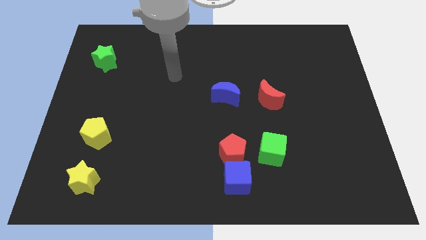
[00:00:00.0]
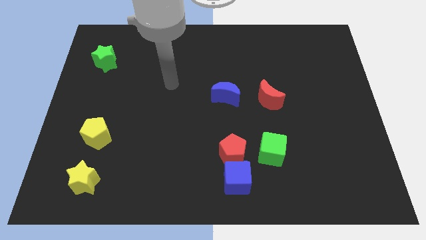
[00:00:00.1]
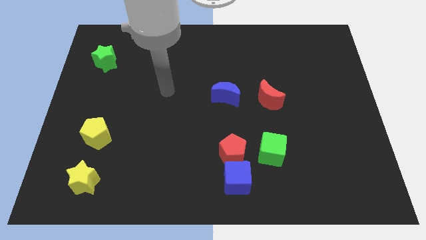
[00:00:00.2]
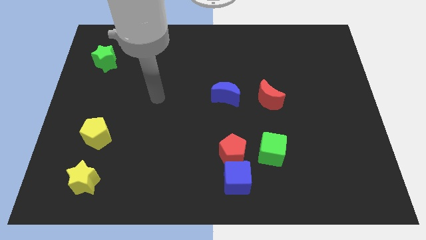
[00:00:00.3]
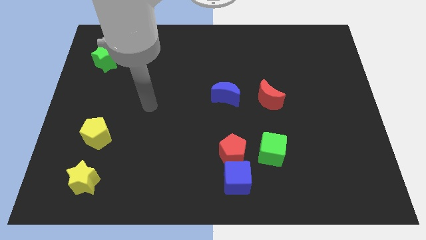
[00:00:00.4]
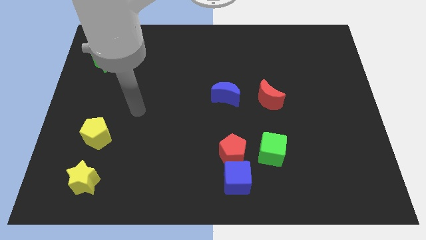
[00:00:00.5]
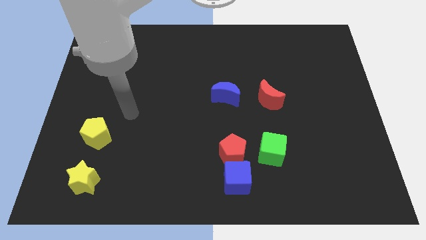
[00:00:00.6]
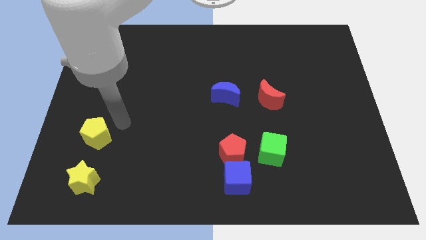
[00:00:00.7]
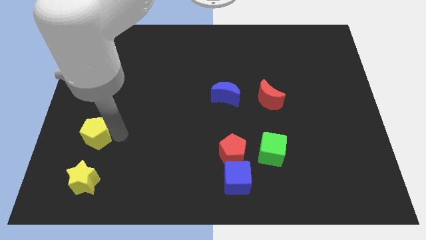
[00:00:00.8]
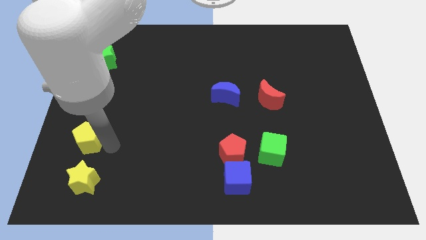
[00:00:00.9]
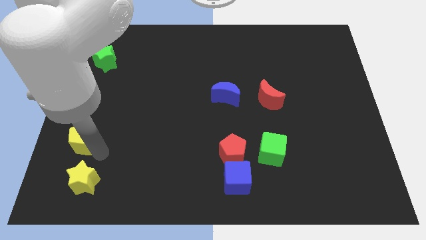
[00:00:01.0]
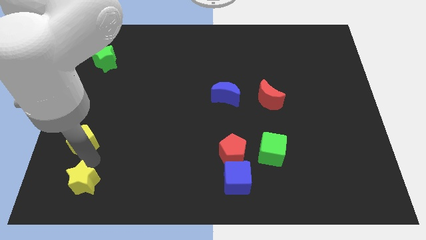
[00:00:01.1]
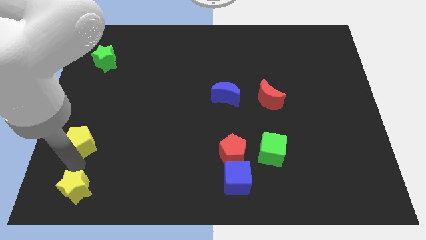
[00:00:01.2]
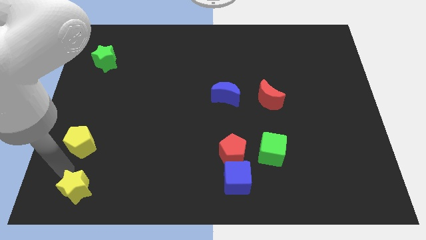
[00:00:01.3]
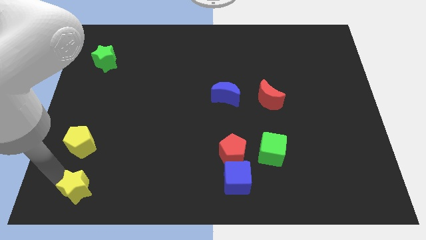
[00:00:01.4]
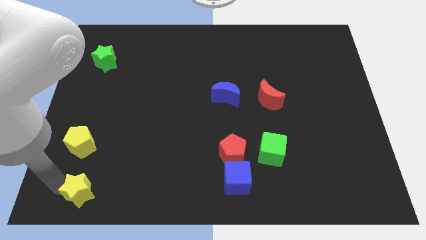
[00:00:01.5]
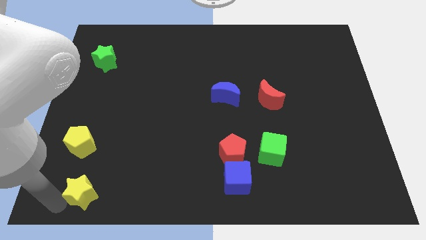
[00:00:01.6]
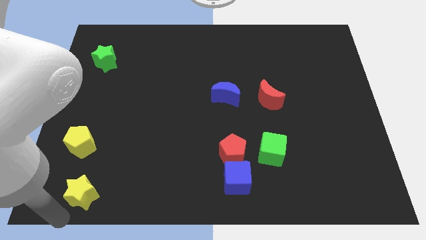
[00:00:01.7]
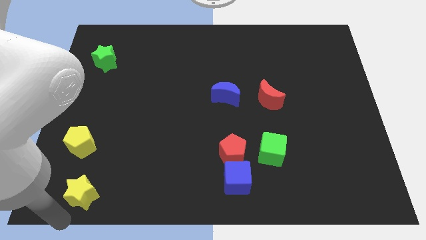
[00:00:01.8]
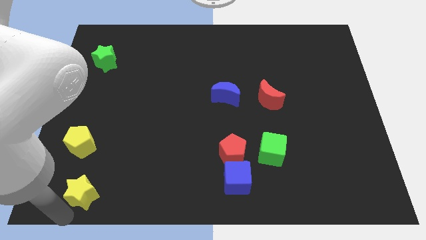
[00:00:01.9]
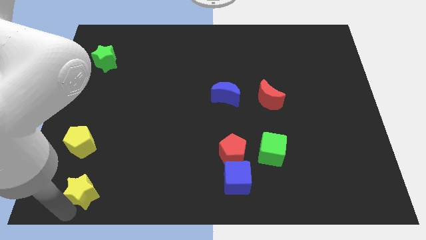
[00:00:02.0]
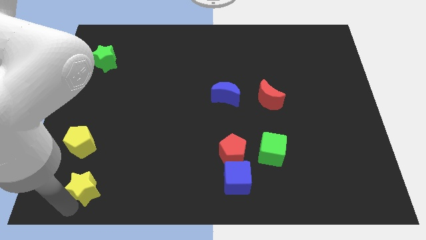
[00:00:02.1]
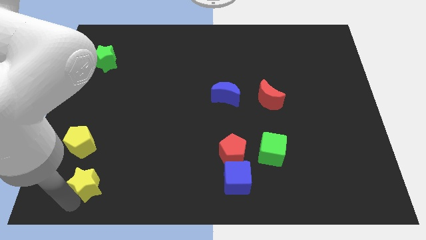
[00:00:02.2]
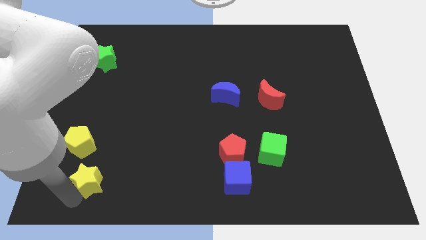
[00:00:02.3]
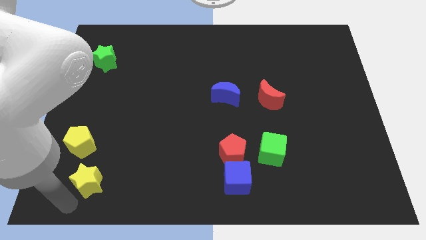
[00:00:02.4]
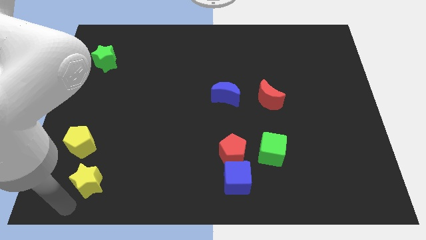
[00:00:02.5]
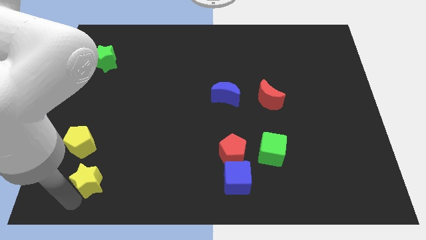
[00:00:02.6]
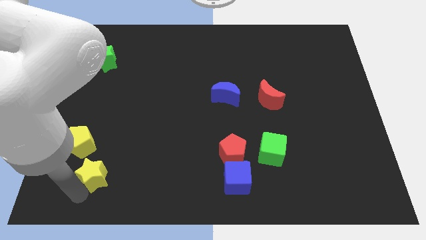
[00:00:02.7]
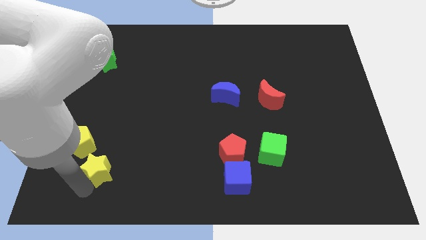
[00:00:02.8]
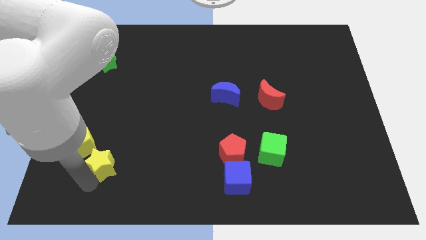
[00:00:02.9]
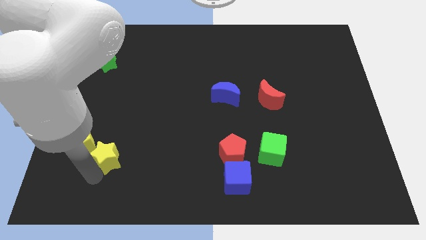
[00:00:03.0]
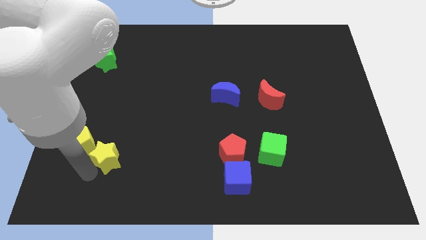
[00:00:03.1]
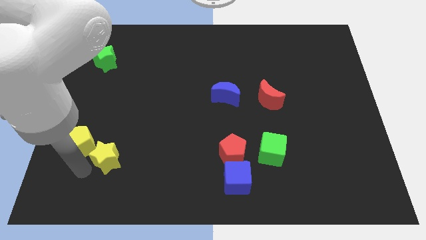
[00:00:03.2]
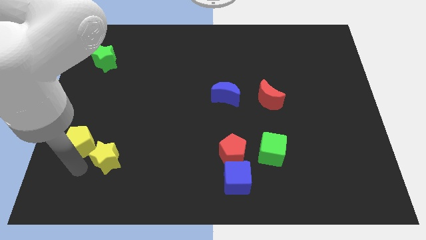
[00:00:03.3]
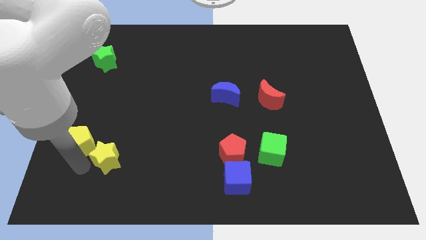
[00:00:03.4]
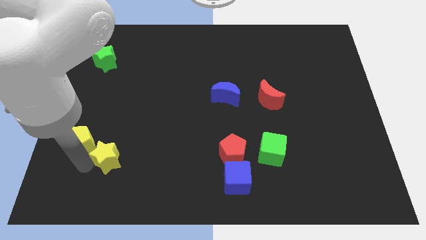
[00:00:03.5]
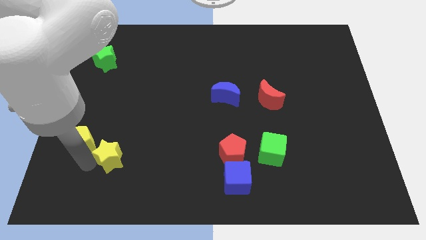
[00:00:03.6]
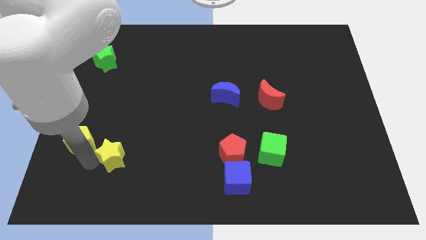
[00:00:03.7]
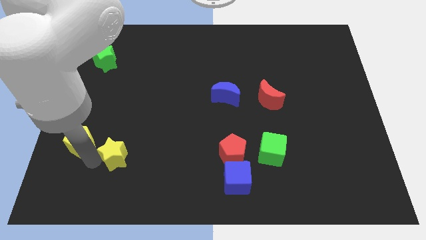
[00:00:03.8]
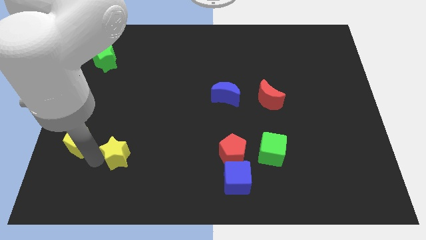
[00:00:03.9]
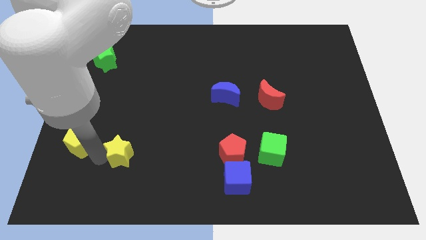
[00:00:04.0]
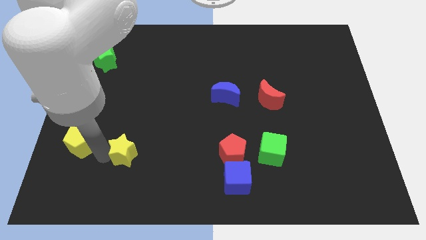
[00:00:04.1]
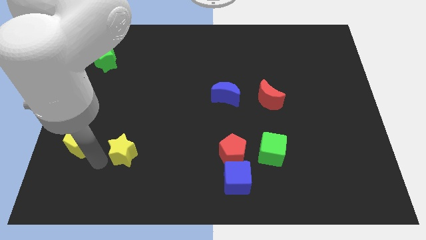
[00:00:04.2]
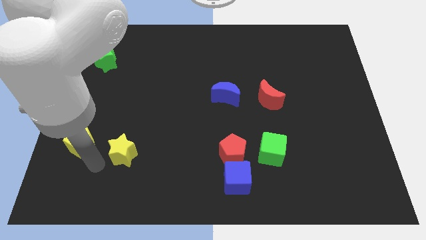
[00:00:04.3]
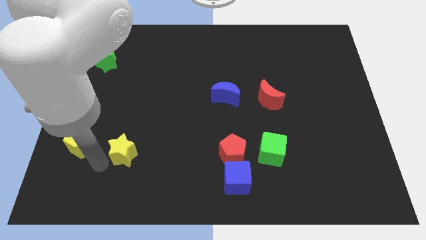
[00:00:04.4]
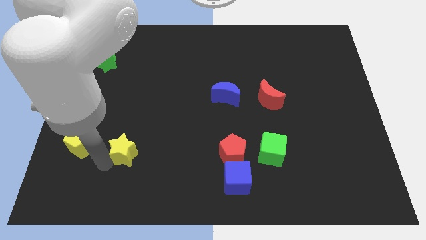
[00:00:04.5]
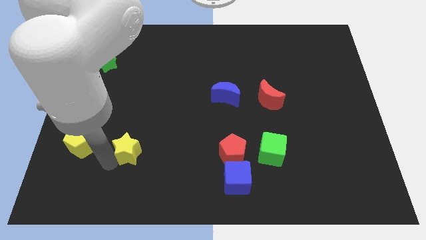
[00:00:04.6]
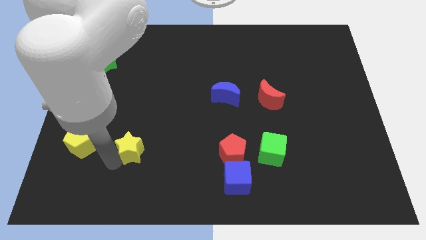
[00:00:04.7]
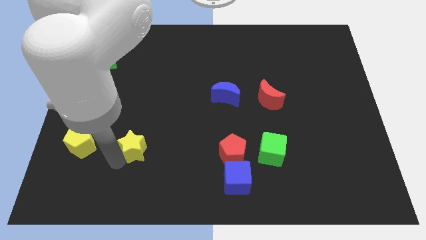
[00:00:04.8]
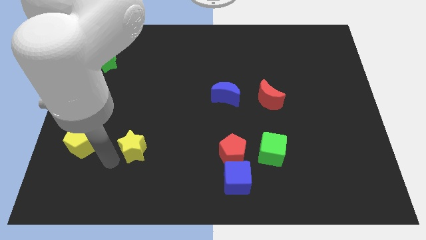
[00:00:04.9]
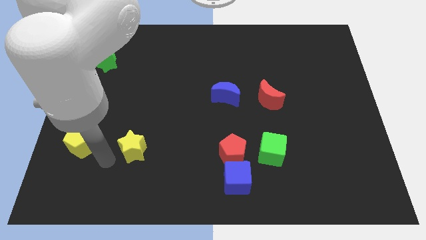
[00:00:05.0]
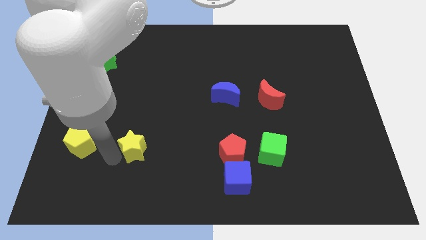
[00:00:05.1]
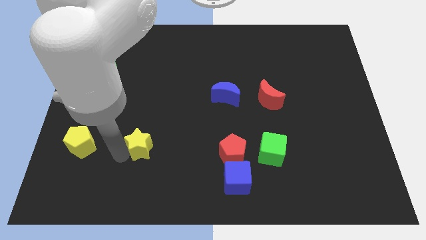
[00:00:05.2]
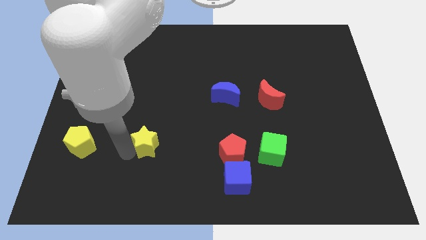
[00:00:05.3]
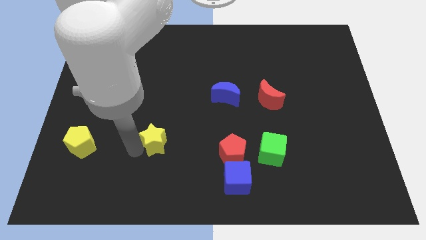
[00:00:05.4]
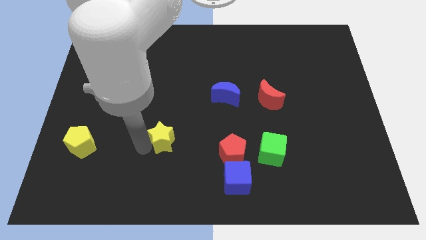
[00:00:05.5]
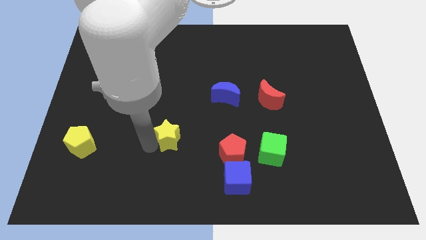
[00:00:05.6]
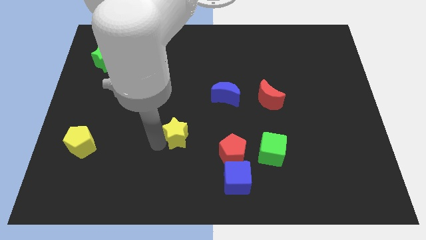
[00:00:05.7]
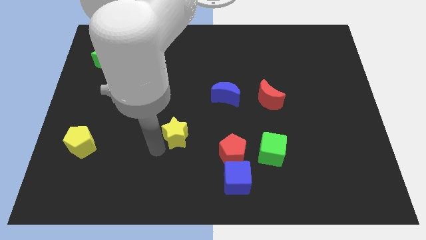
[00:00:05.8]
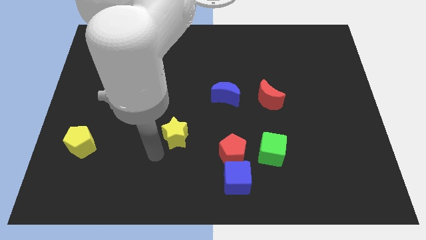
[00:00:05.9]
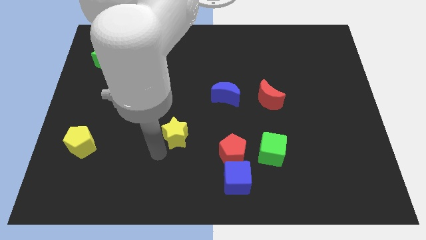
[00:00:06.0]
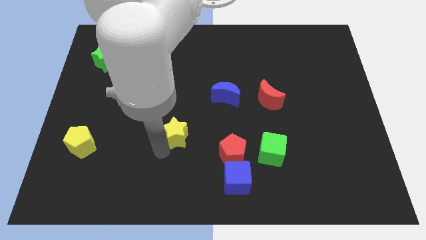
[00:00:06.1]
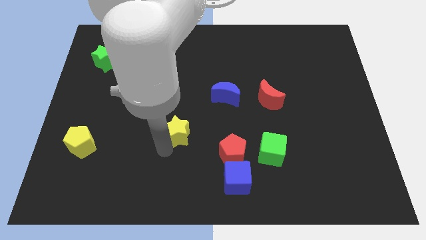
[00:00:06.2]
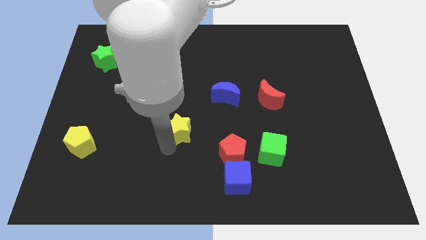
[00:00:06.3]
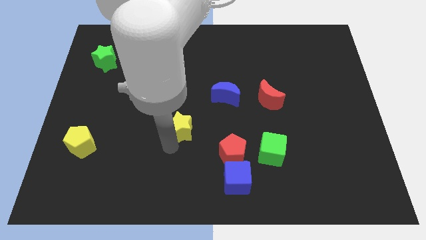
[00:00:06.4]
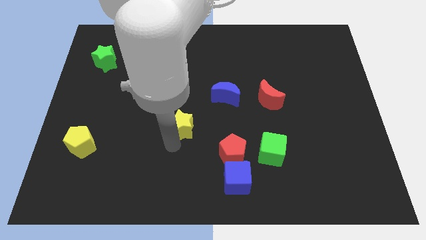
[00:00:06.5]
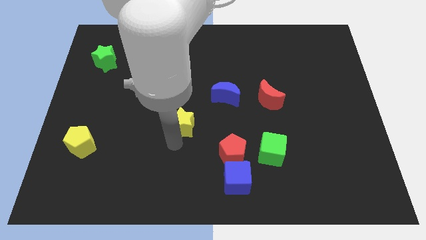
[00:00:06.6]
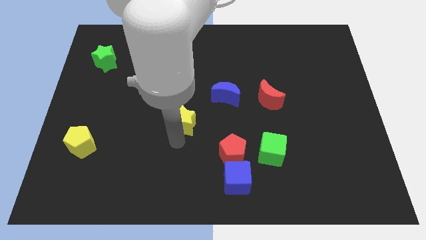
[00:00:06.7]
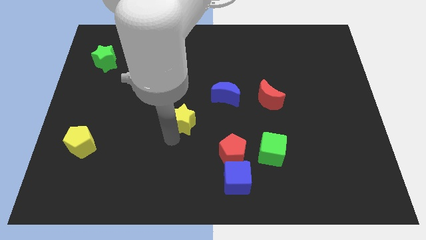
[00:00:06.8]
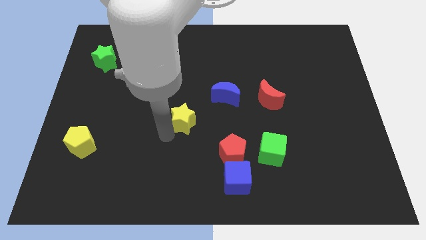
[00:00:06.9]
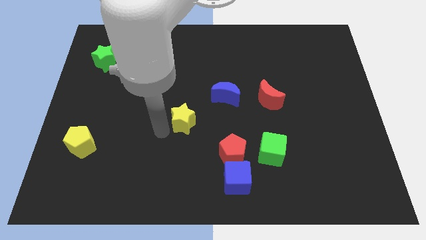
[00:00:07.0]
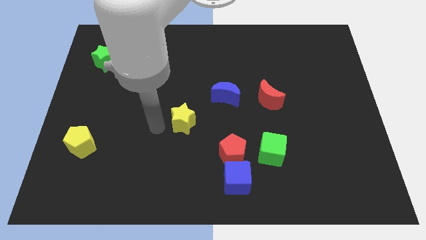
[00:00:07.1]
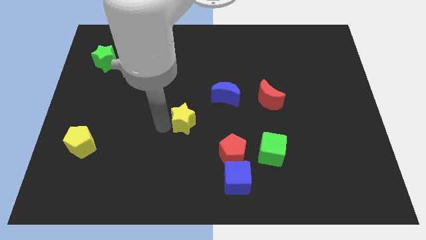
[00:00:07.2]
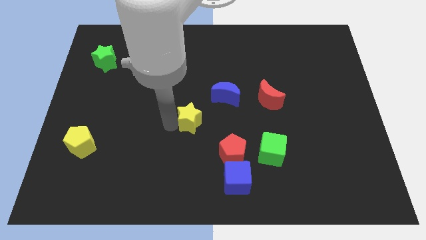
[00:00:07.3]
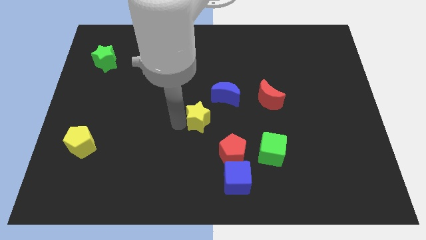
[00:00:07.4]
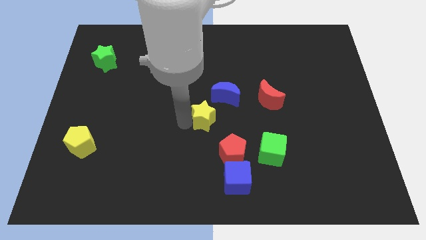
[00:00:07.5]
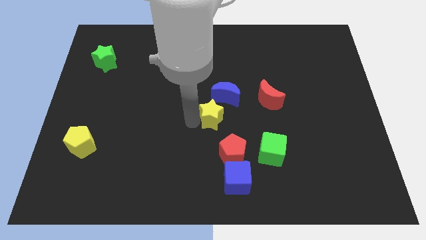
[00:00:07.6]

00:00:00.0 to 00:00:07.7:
move the yellow star to the top side of the red pentagon
